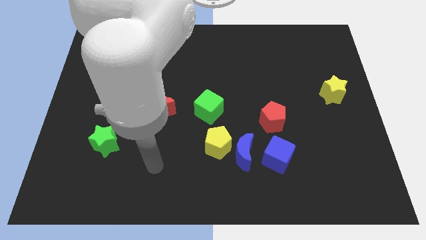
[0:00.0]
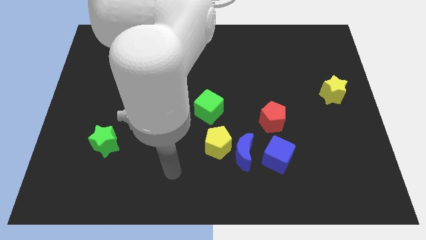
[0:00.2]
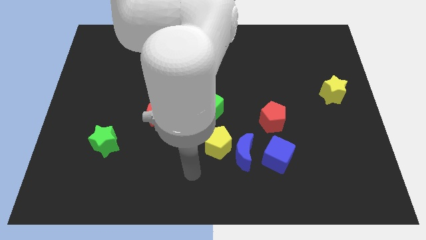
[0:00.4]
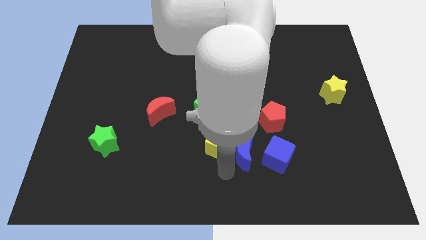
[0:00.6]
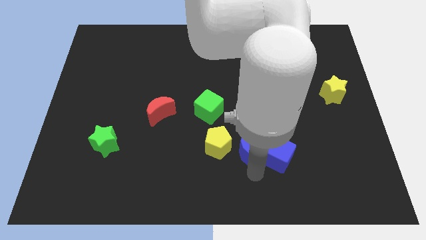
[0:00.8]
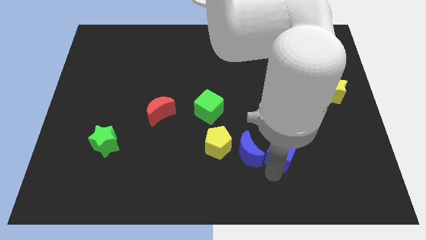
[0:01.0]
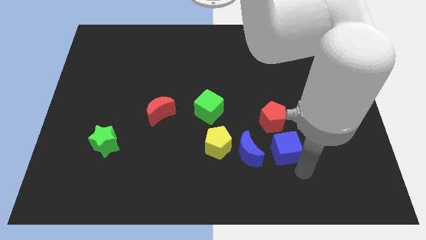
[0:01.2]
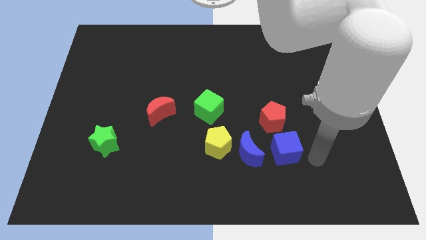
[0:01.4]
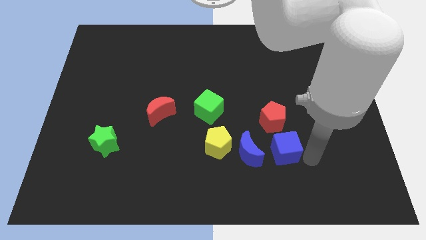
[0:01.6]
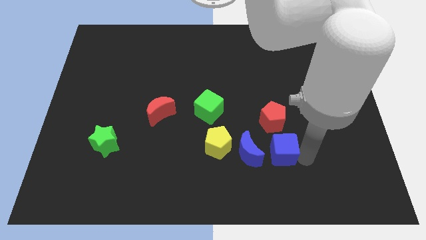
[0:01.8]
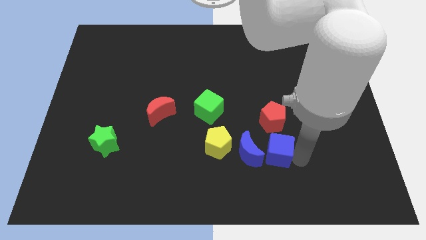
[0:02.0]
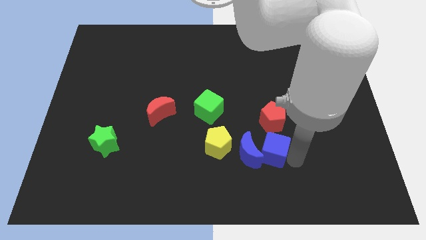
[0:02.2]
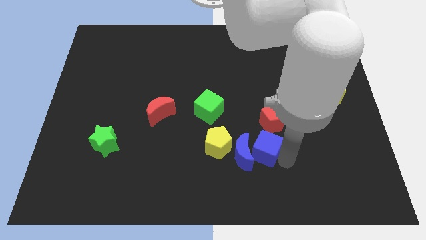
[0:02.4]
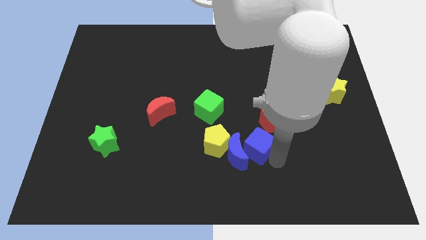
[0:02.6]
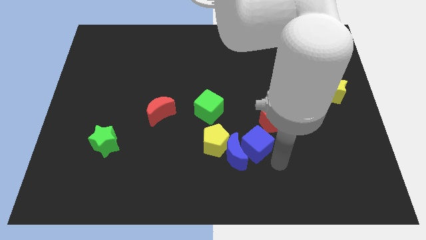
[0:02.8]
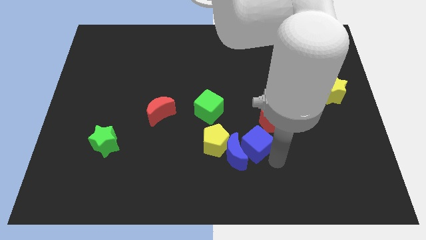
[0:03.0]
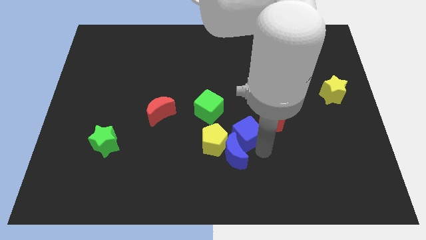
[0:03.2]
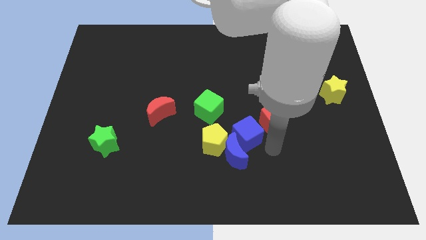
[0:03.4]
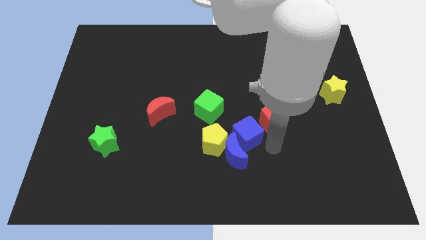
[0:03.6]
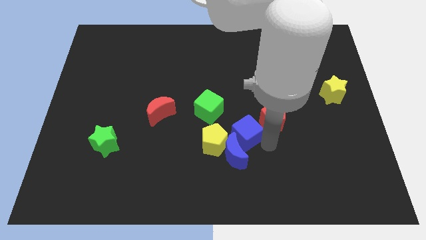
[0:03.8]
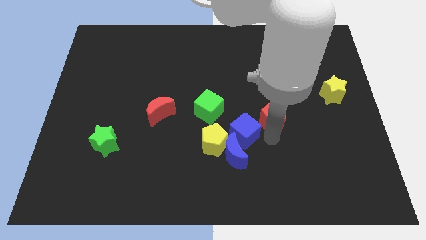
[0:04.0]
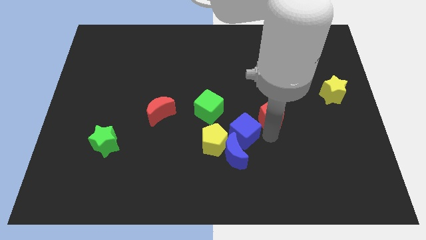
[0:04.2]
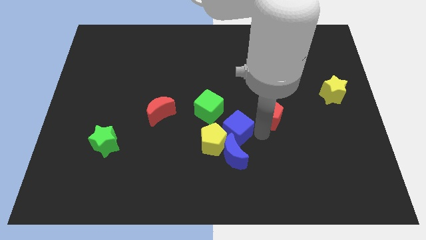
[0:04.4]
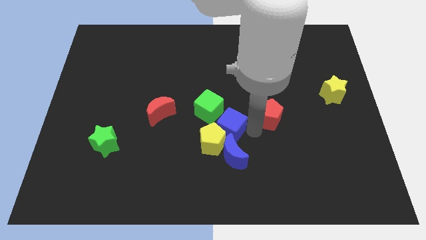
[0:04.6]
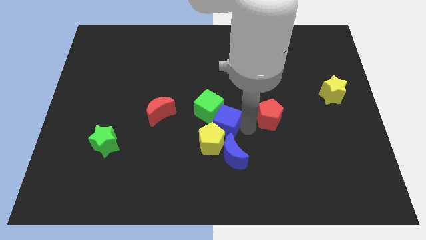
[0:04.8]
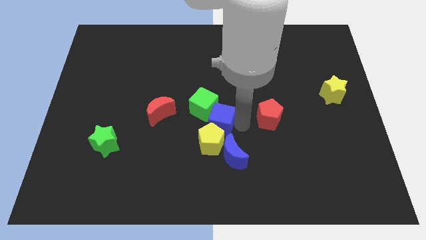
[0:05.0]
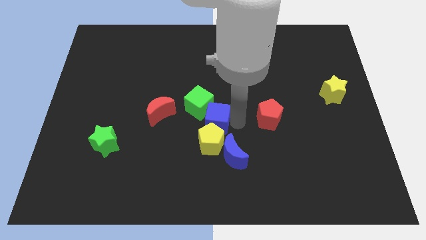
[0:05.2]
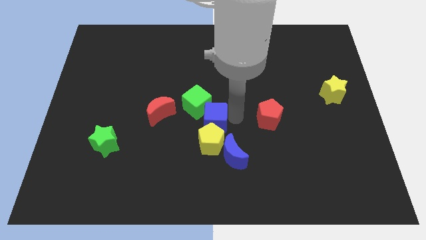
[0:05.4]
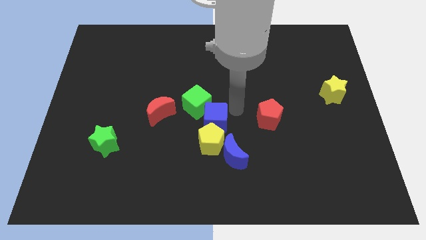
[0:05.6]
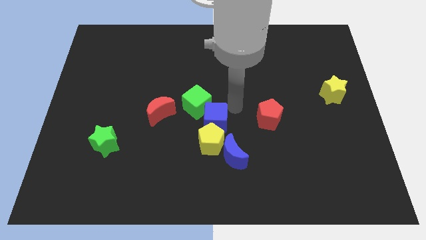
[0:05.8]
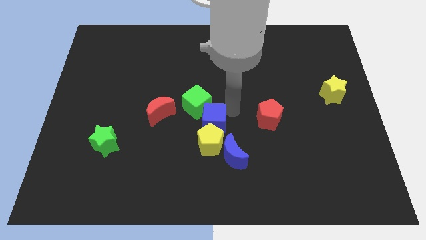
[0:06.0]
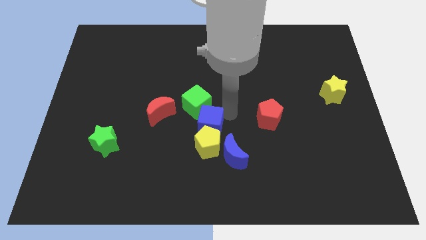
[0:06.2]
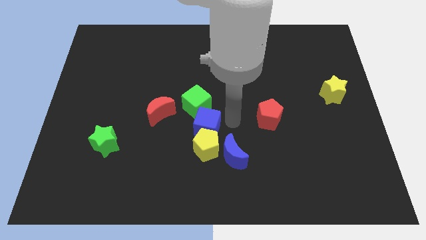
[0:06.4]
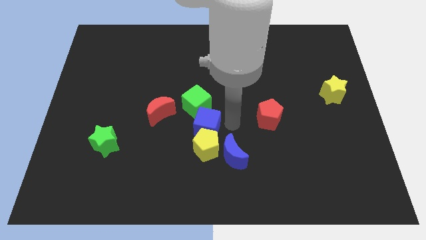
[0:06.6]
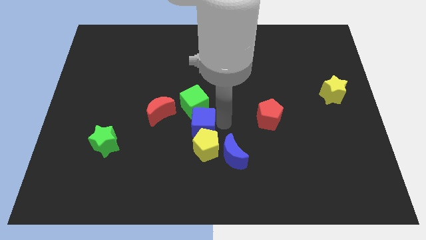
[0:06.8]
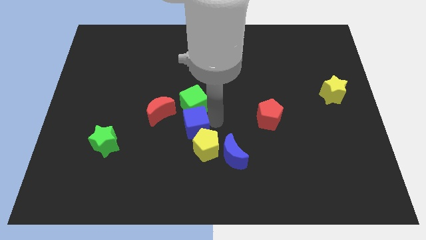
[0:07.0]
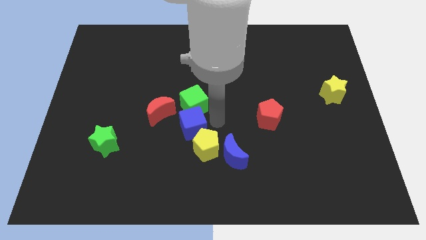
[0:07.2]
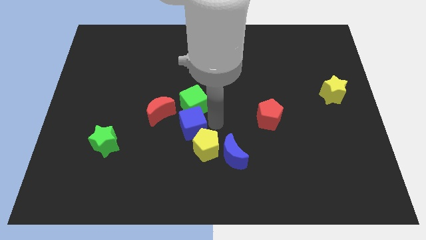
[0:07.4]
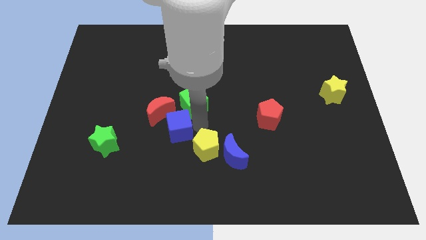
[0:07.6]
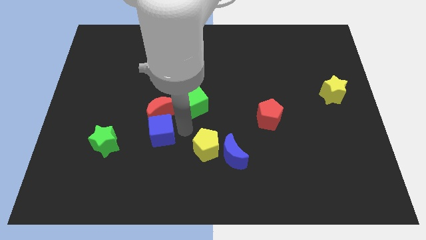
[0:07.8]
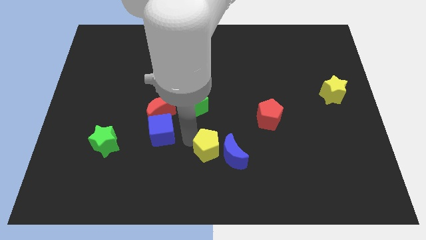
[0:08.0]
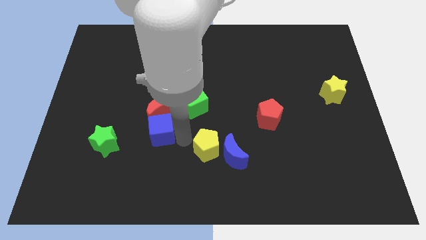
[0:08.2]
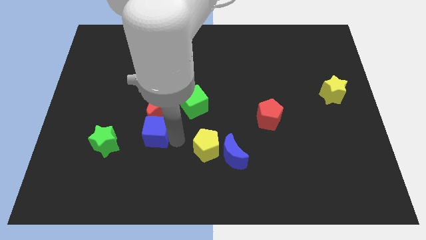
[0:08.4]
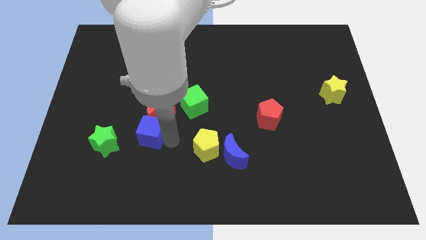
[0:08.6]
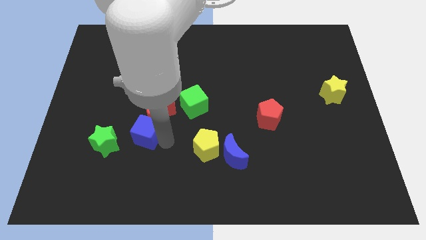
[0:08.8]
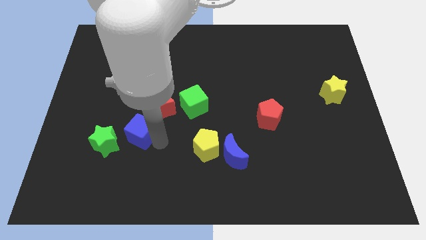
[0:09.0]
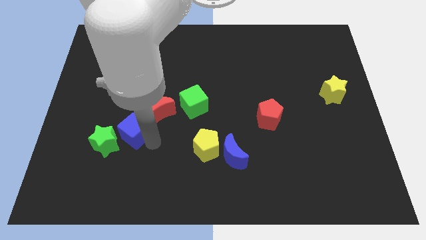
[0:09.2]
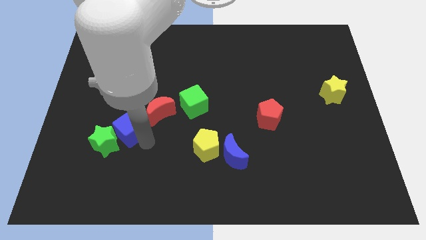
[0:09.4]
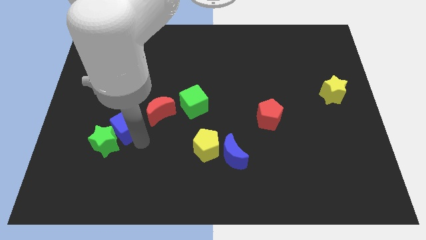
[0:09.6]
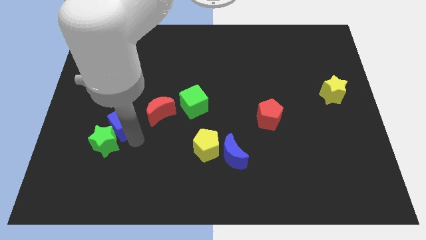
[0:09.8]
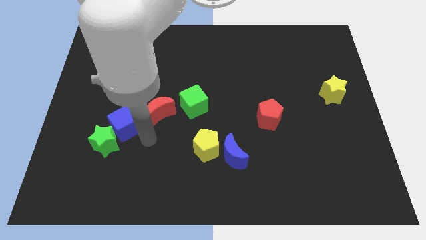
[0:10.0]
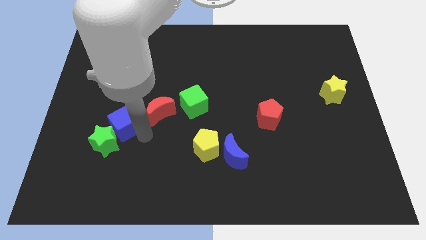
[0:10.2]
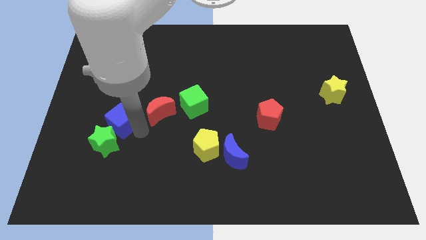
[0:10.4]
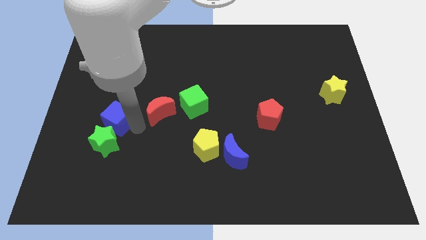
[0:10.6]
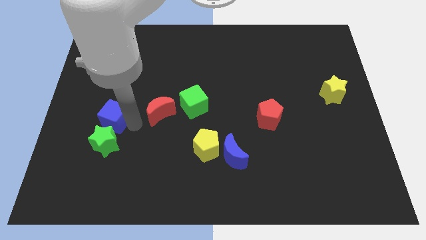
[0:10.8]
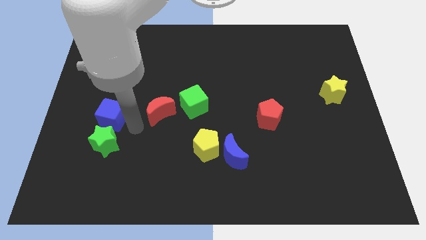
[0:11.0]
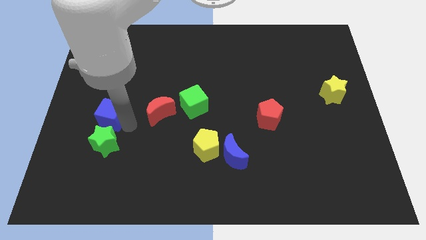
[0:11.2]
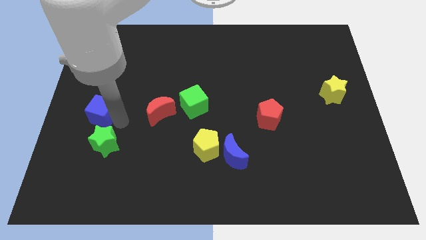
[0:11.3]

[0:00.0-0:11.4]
put the blue cube to the left side of the board
